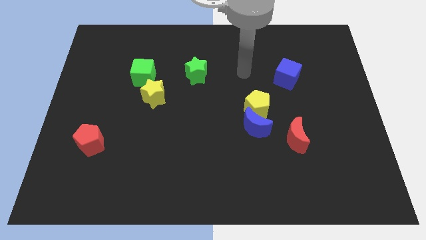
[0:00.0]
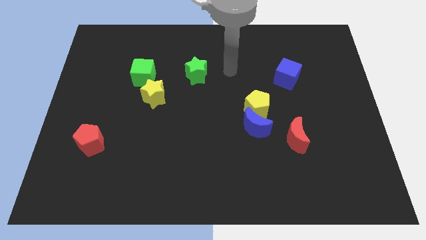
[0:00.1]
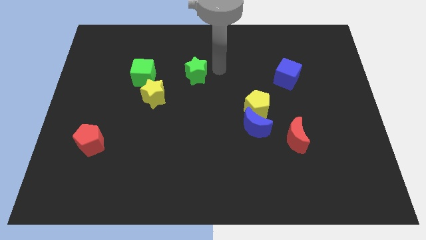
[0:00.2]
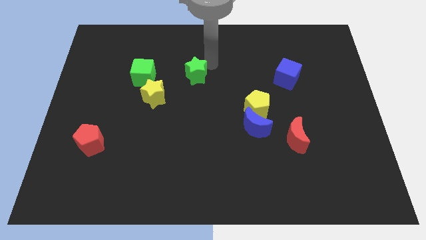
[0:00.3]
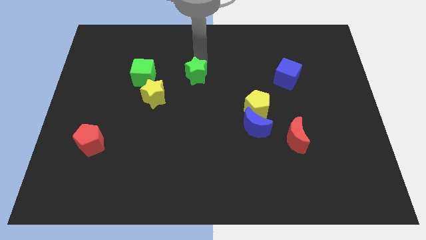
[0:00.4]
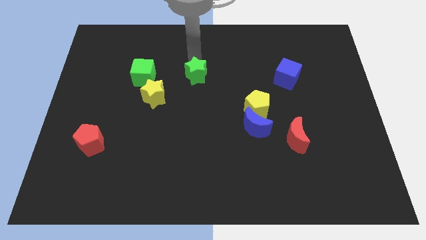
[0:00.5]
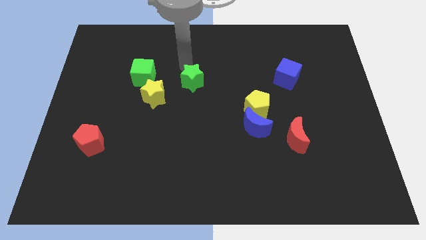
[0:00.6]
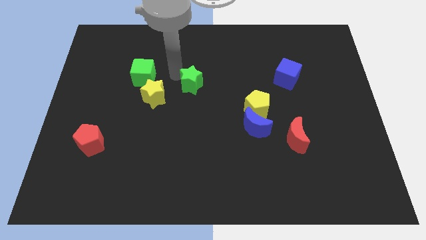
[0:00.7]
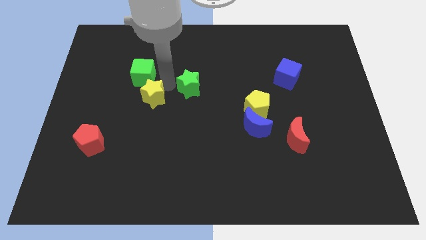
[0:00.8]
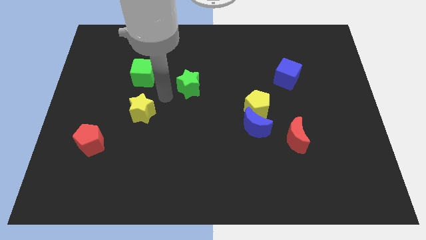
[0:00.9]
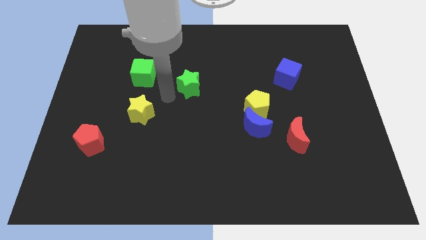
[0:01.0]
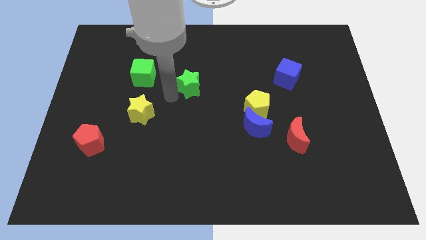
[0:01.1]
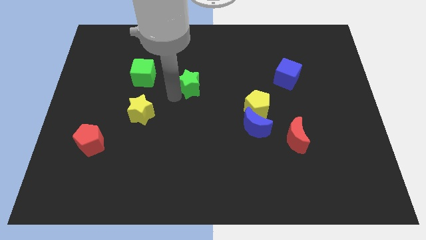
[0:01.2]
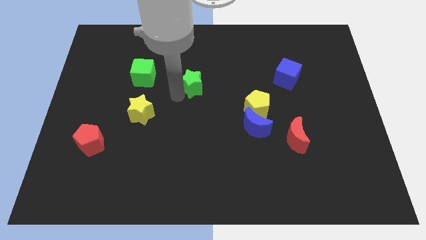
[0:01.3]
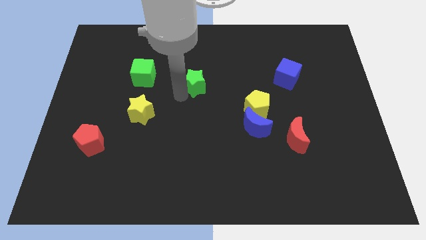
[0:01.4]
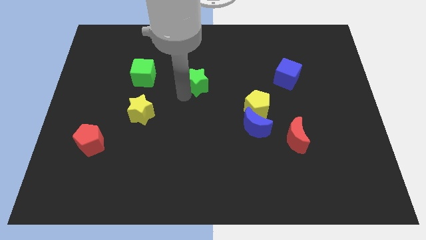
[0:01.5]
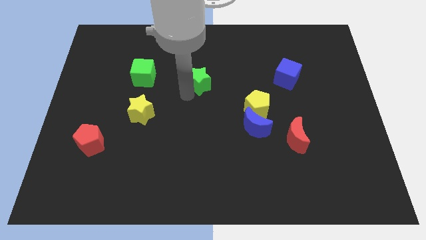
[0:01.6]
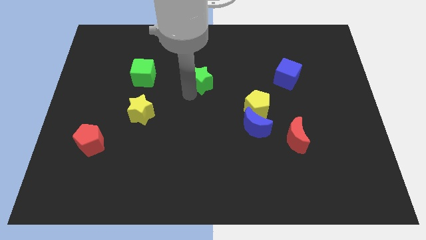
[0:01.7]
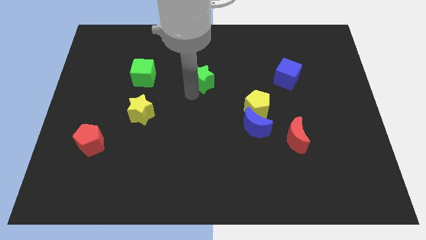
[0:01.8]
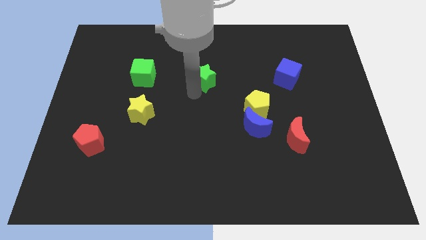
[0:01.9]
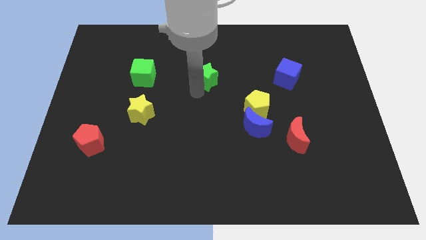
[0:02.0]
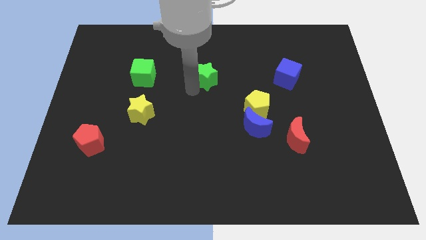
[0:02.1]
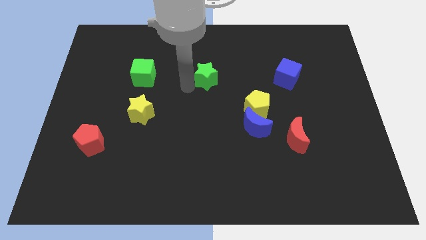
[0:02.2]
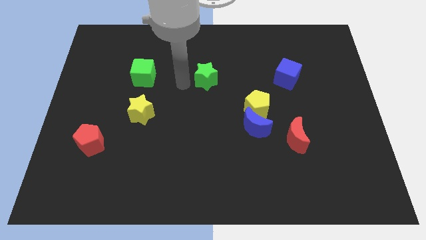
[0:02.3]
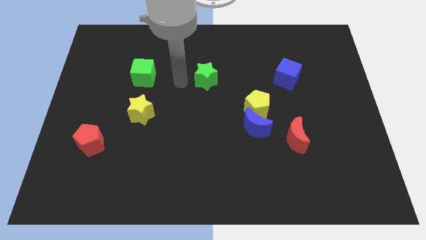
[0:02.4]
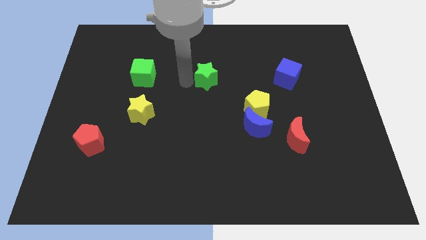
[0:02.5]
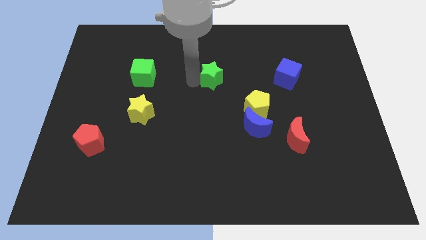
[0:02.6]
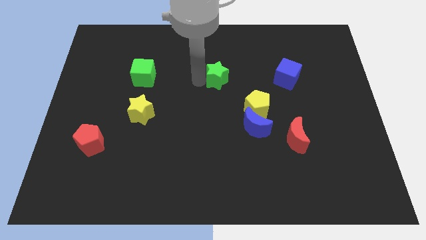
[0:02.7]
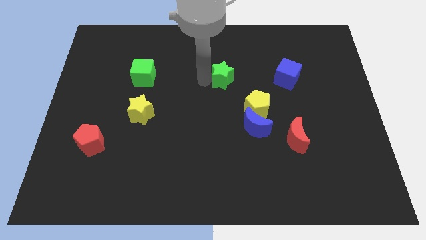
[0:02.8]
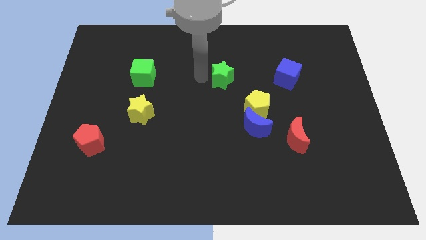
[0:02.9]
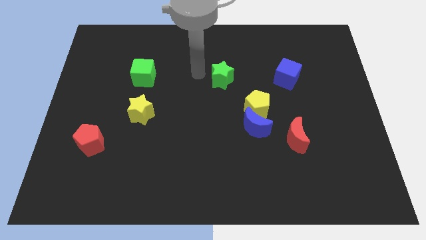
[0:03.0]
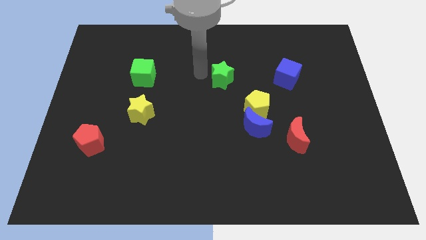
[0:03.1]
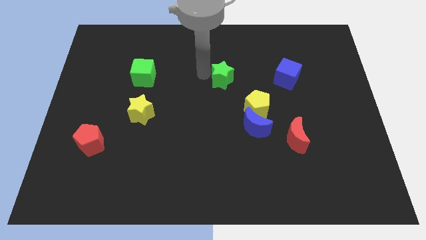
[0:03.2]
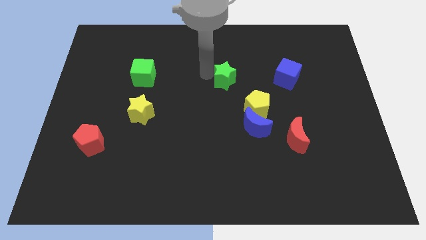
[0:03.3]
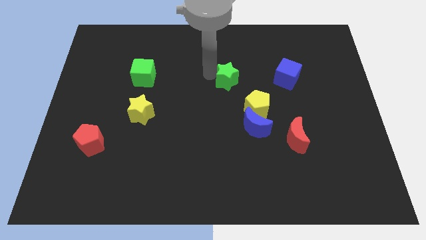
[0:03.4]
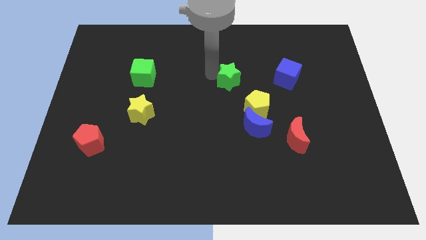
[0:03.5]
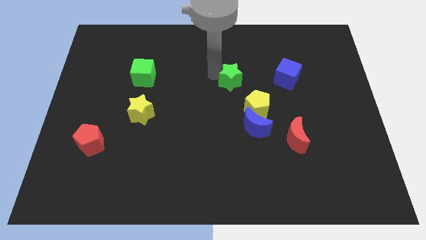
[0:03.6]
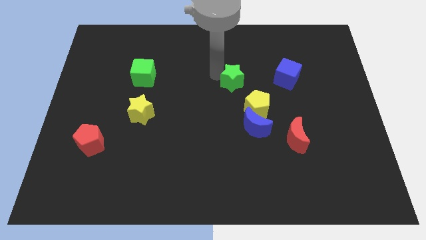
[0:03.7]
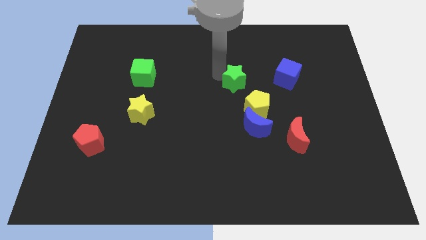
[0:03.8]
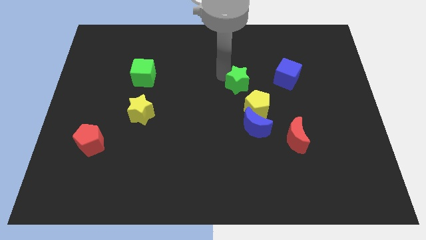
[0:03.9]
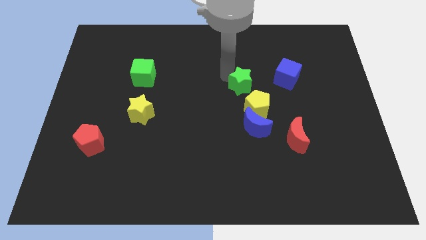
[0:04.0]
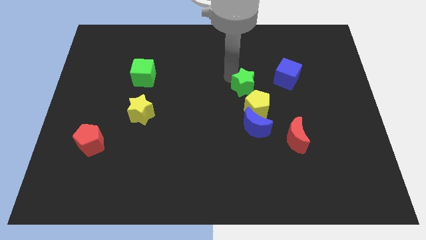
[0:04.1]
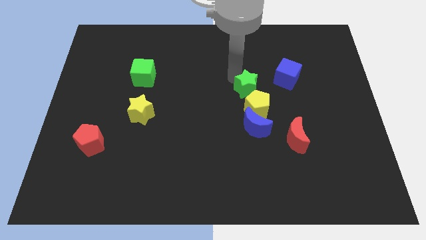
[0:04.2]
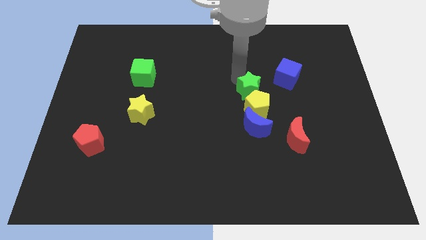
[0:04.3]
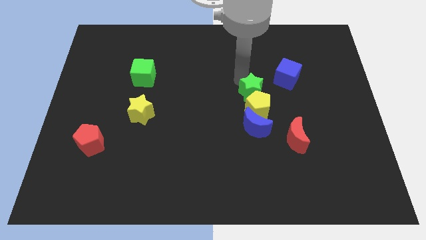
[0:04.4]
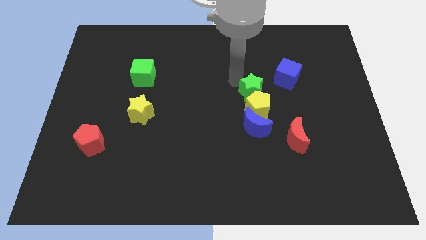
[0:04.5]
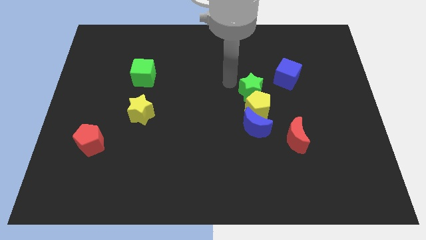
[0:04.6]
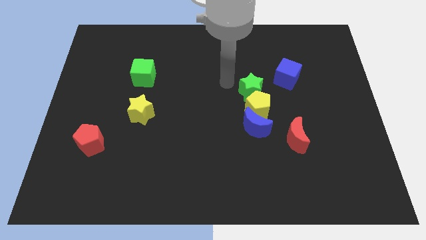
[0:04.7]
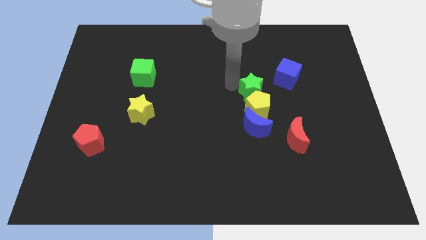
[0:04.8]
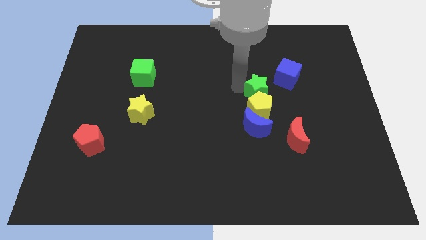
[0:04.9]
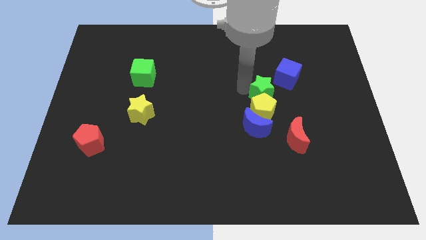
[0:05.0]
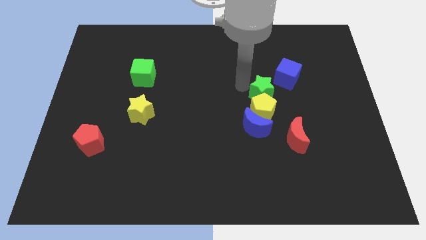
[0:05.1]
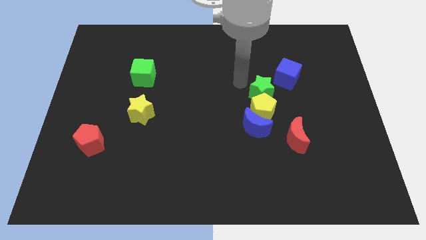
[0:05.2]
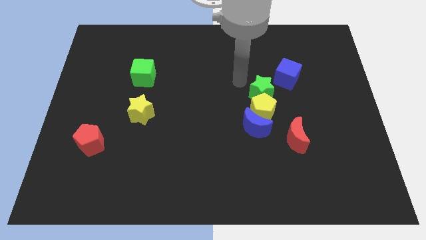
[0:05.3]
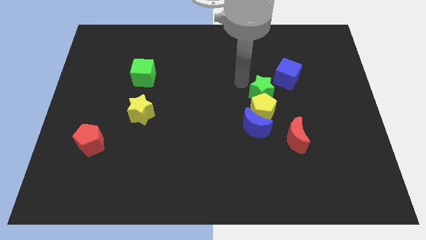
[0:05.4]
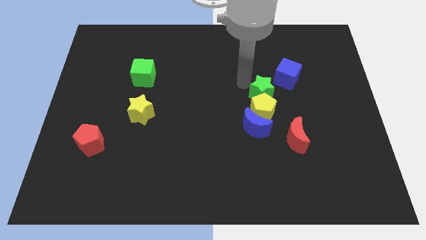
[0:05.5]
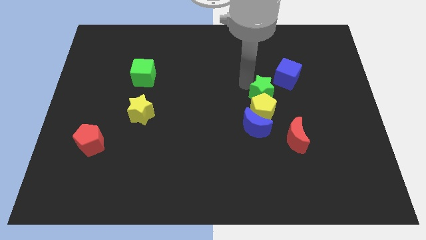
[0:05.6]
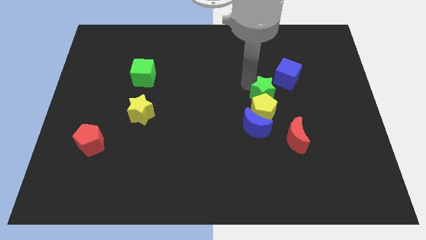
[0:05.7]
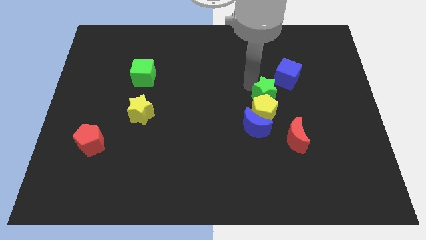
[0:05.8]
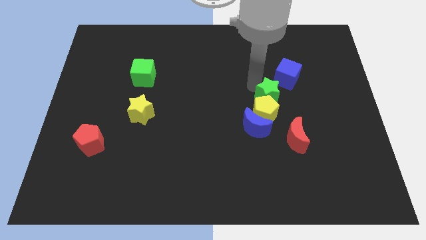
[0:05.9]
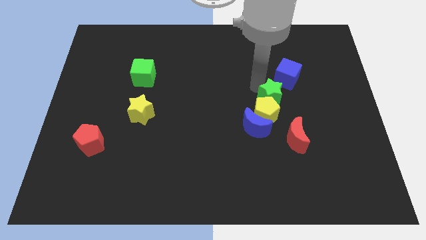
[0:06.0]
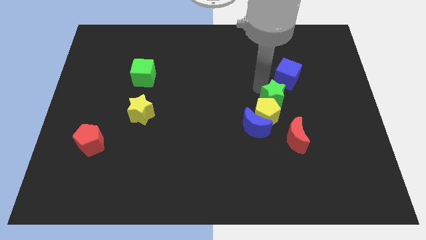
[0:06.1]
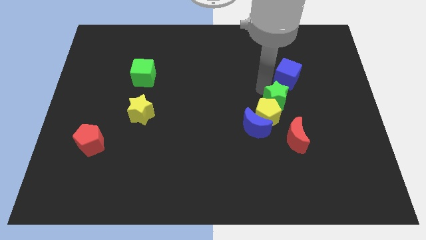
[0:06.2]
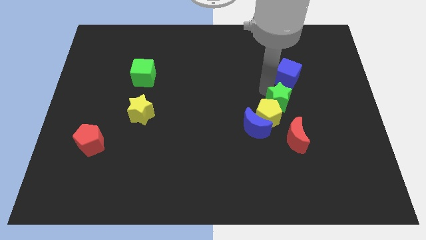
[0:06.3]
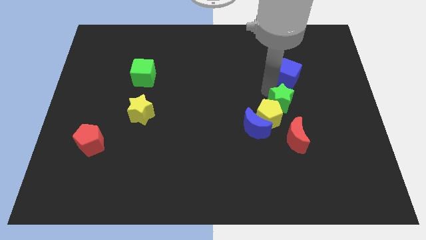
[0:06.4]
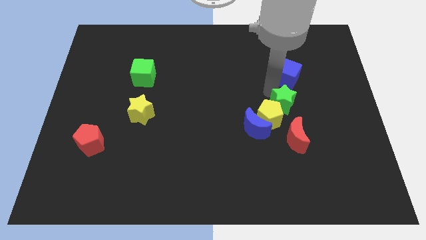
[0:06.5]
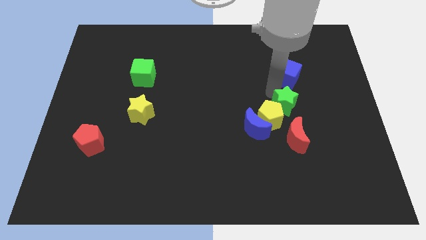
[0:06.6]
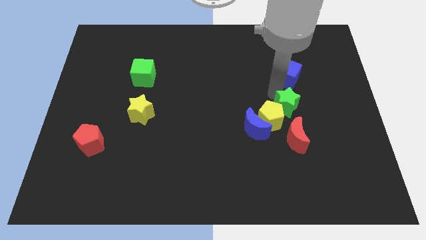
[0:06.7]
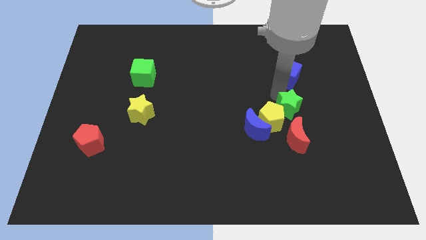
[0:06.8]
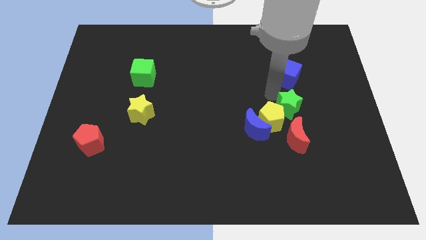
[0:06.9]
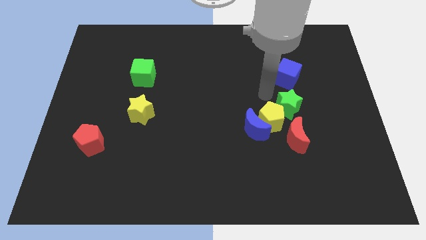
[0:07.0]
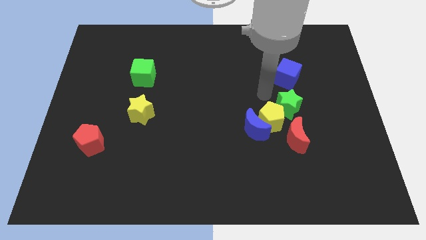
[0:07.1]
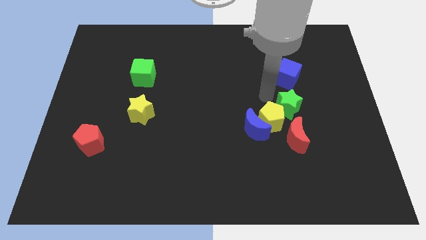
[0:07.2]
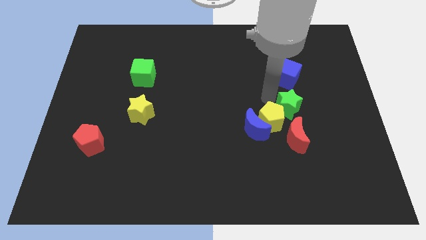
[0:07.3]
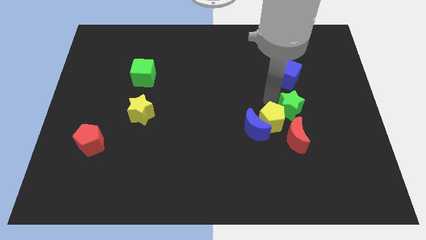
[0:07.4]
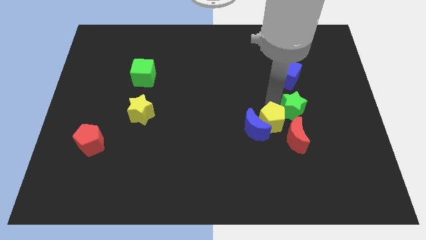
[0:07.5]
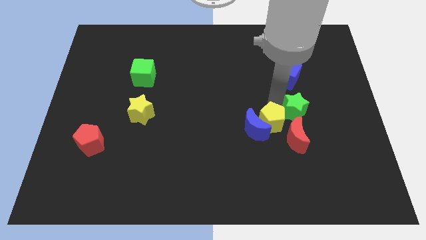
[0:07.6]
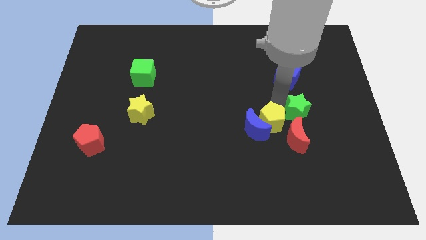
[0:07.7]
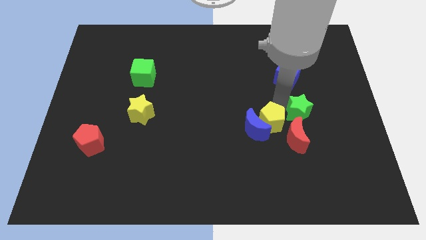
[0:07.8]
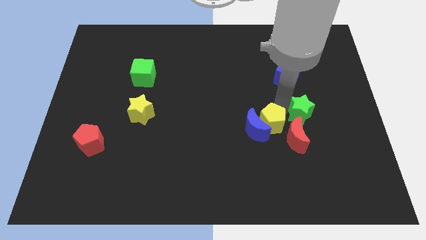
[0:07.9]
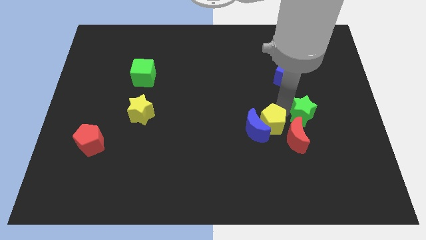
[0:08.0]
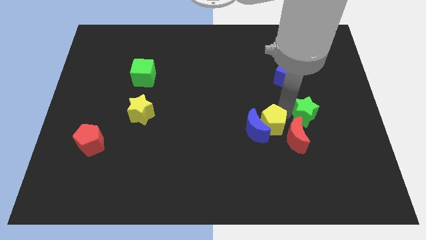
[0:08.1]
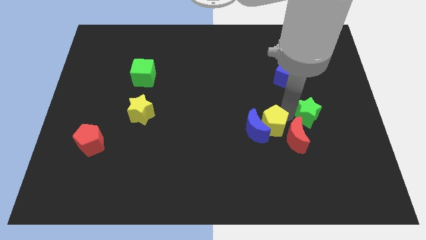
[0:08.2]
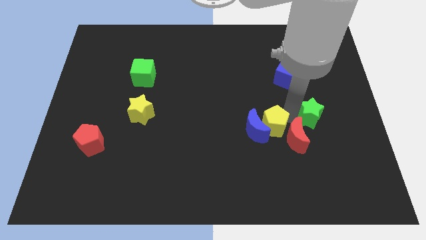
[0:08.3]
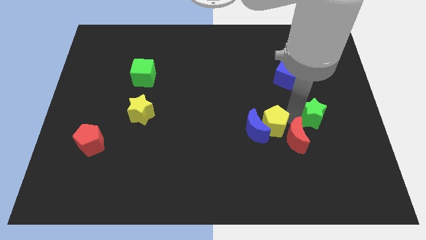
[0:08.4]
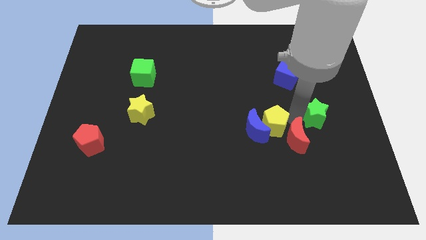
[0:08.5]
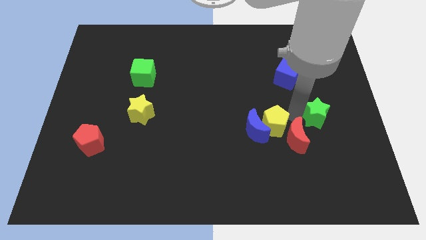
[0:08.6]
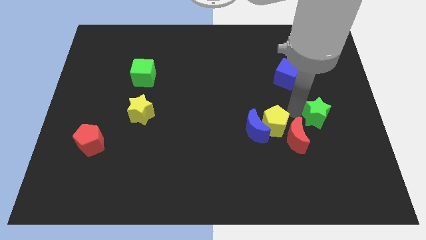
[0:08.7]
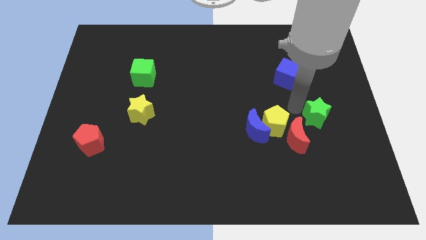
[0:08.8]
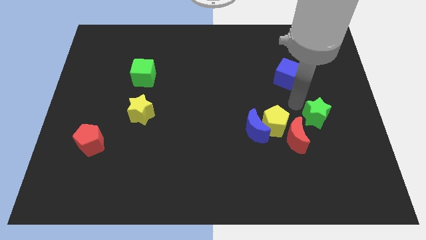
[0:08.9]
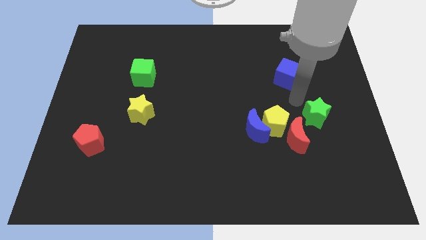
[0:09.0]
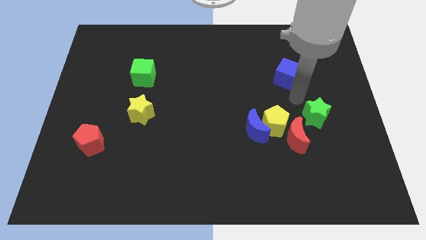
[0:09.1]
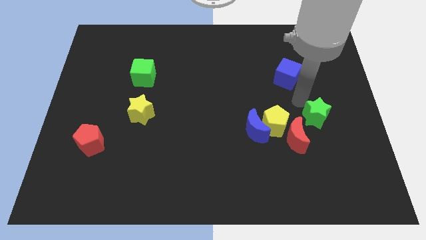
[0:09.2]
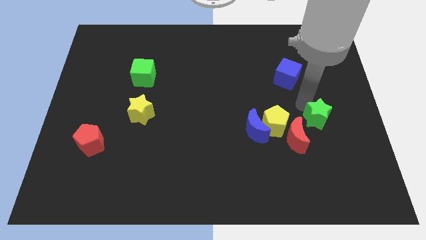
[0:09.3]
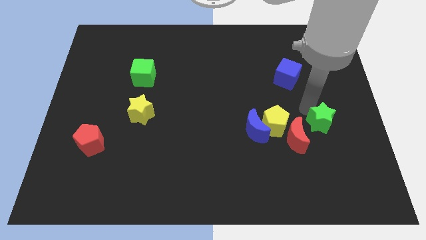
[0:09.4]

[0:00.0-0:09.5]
put the green star to the right of the red moon
